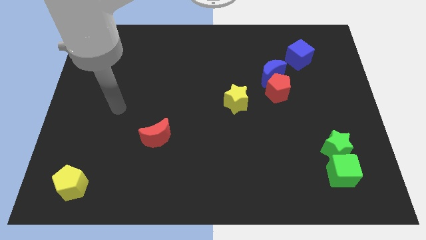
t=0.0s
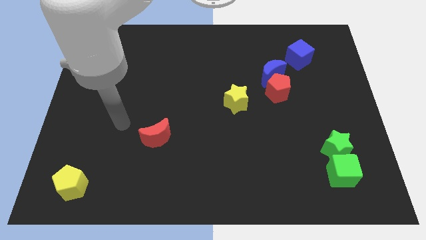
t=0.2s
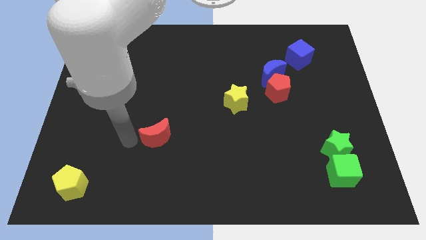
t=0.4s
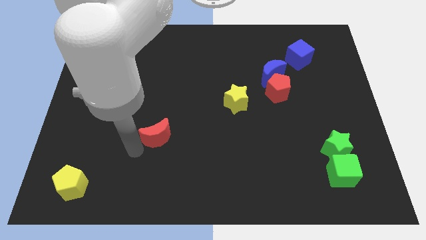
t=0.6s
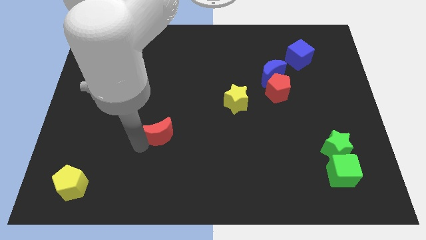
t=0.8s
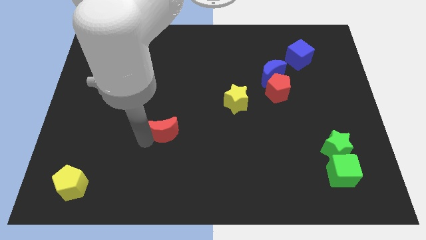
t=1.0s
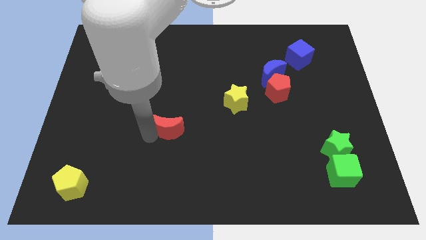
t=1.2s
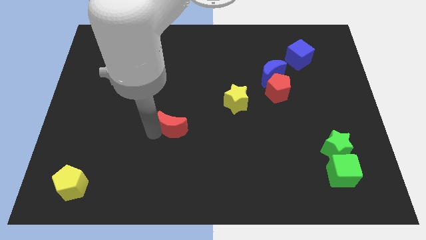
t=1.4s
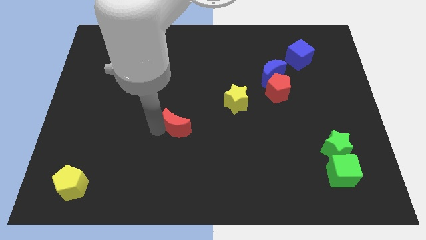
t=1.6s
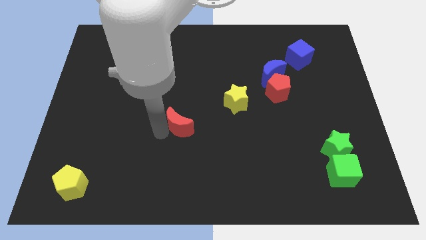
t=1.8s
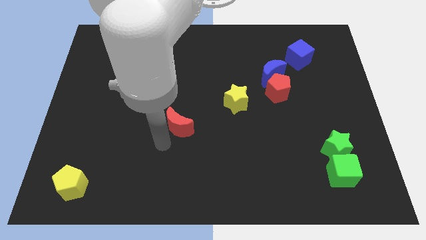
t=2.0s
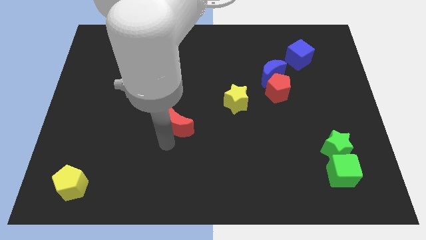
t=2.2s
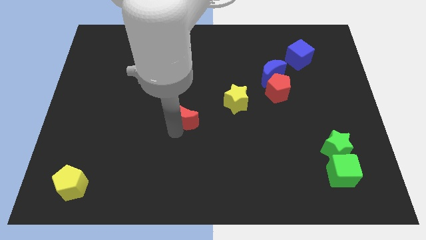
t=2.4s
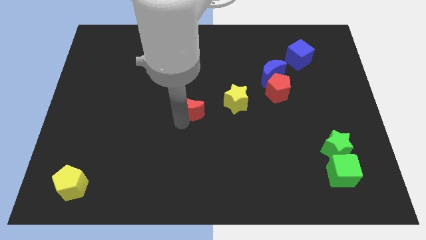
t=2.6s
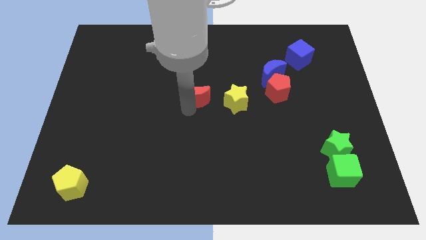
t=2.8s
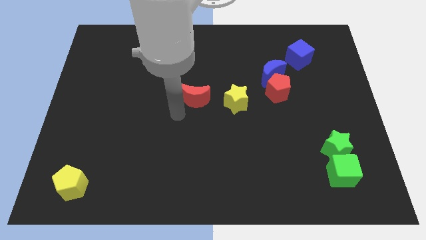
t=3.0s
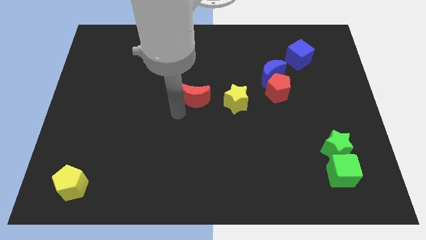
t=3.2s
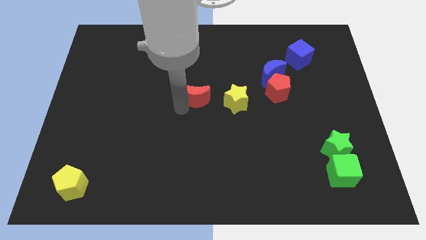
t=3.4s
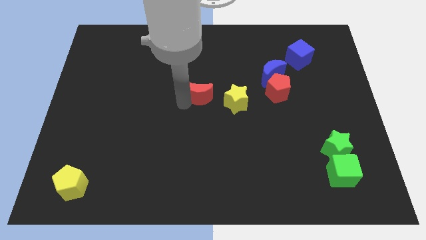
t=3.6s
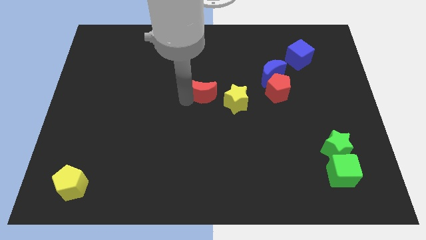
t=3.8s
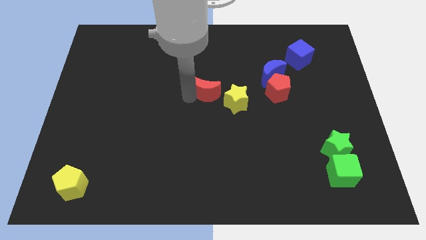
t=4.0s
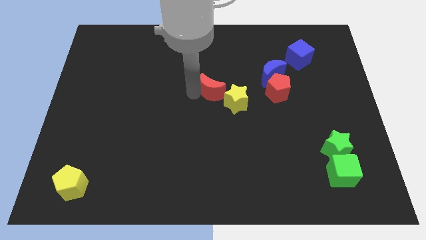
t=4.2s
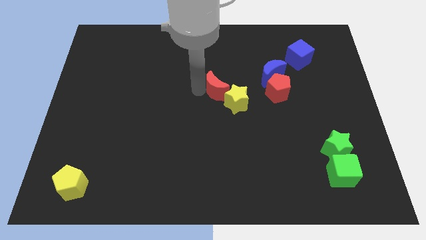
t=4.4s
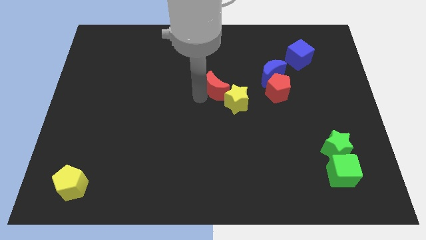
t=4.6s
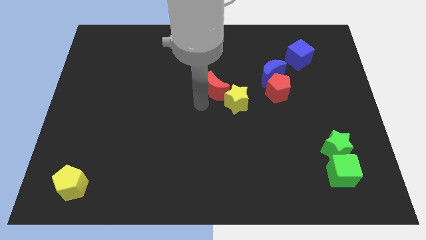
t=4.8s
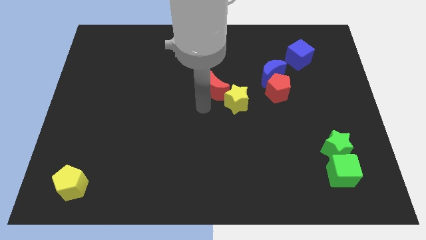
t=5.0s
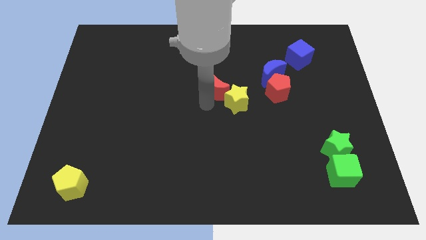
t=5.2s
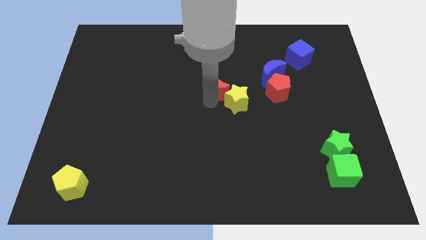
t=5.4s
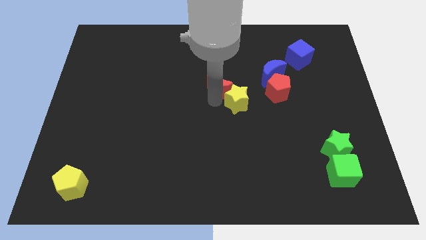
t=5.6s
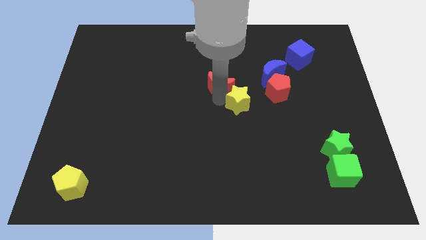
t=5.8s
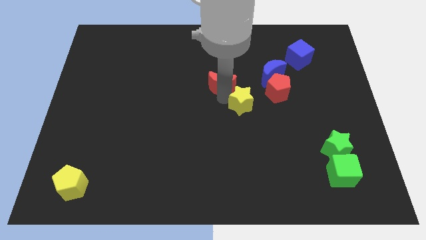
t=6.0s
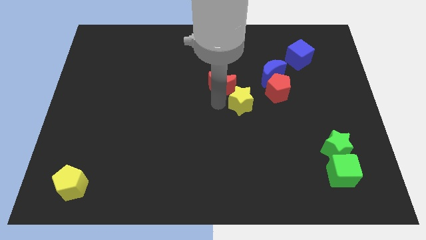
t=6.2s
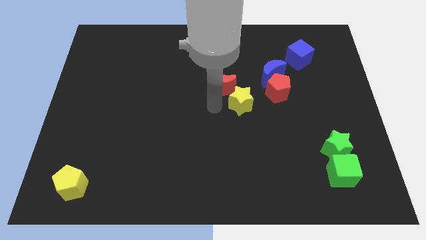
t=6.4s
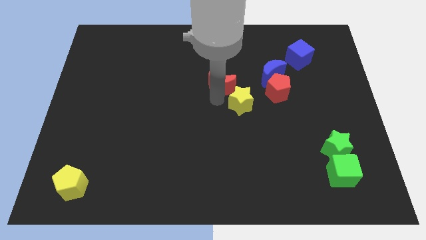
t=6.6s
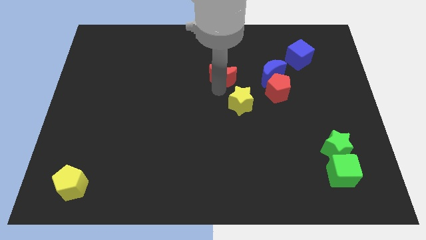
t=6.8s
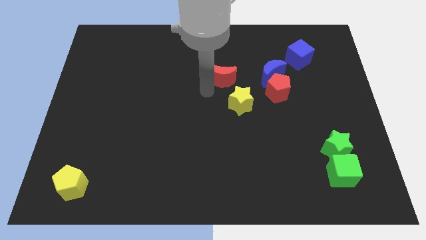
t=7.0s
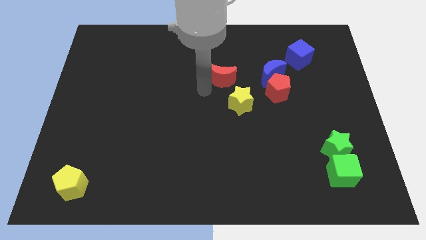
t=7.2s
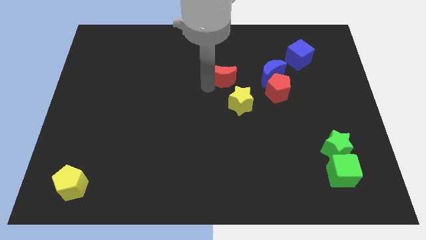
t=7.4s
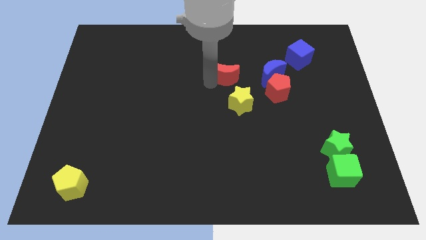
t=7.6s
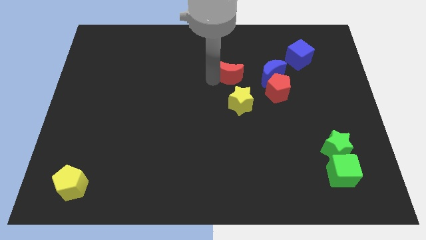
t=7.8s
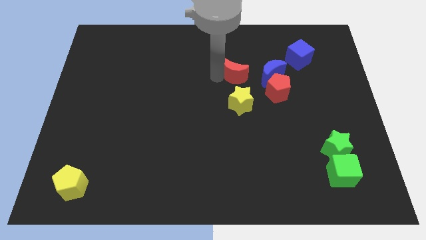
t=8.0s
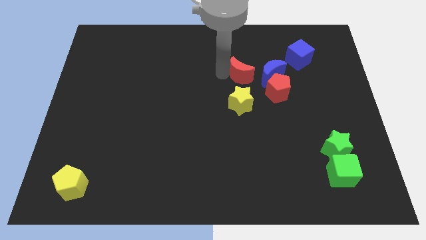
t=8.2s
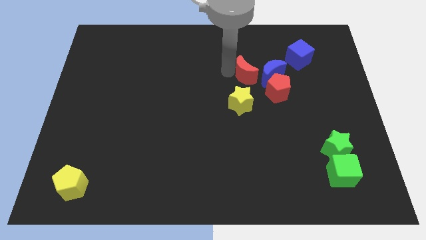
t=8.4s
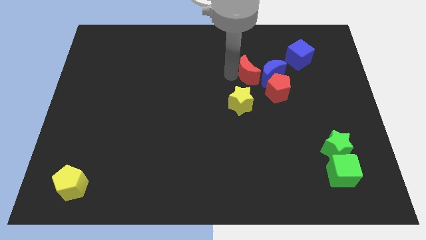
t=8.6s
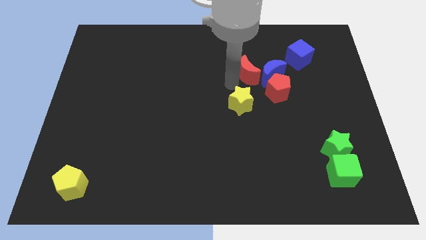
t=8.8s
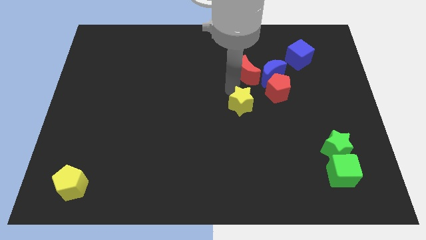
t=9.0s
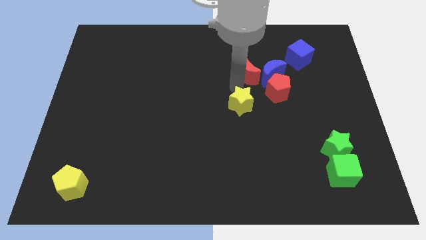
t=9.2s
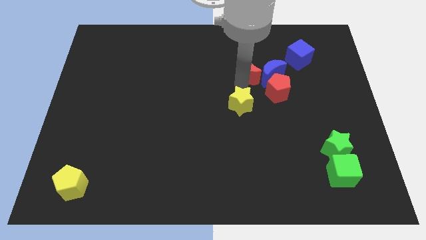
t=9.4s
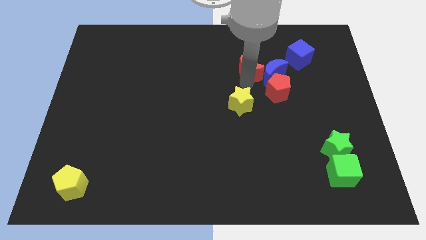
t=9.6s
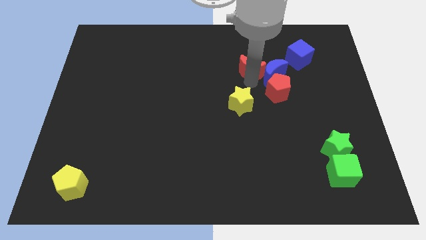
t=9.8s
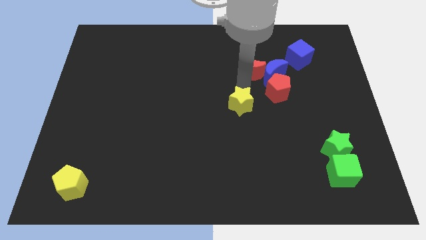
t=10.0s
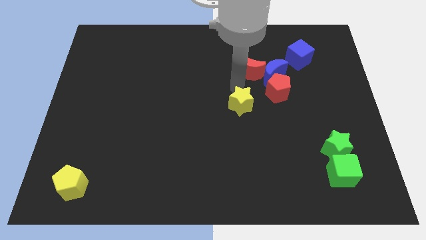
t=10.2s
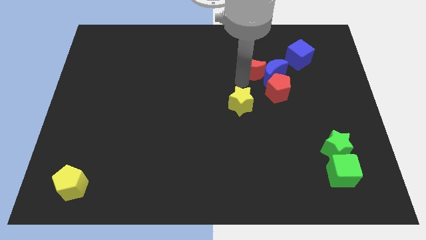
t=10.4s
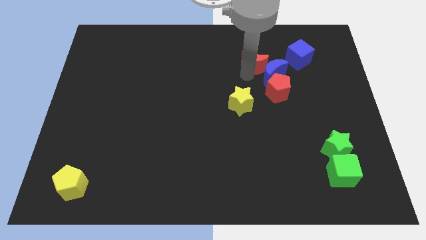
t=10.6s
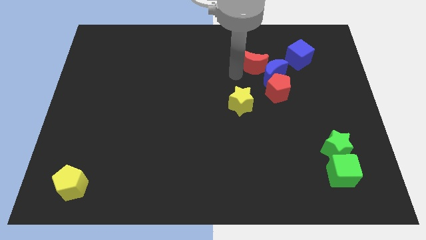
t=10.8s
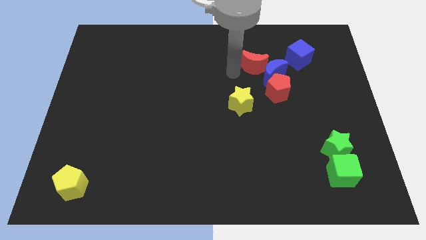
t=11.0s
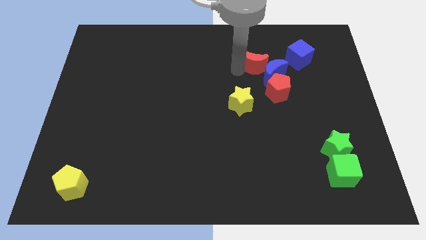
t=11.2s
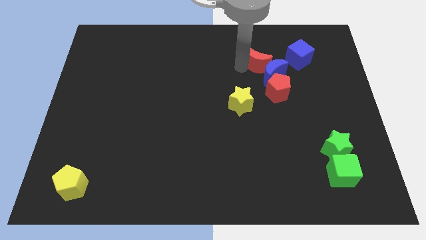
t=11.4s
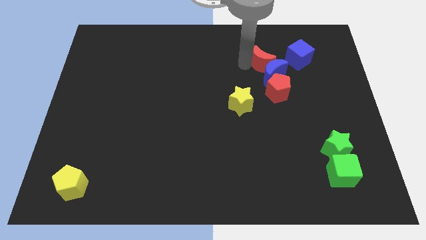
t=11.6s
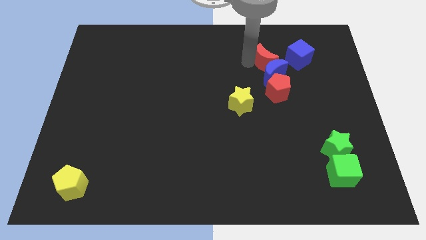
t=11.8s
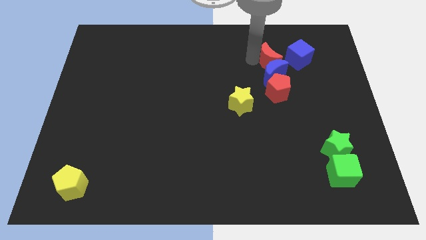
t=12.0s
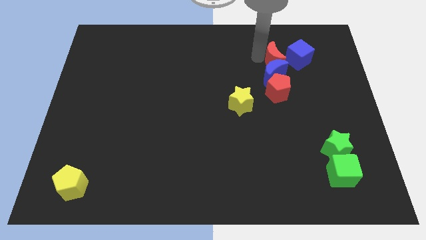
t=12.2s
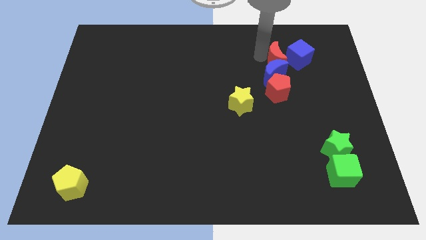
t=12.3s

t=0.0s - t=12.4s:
push the red moon next to the blue cube

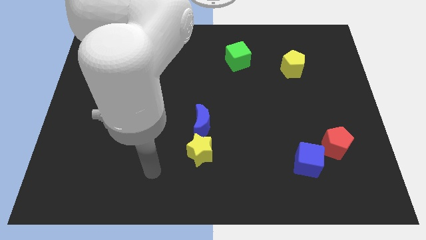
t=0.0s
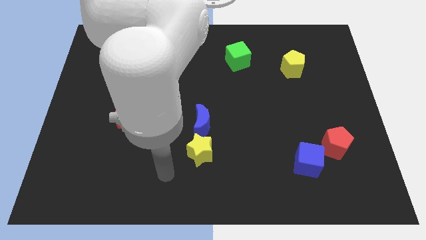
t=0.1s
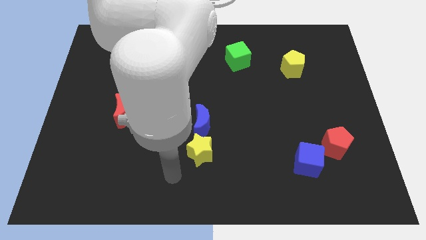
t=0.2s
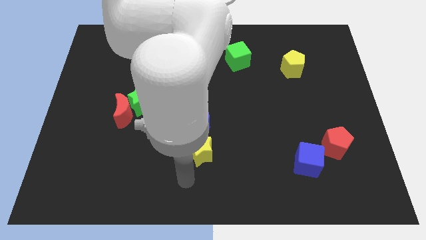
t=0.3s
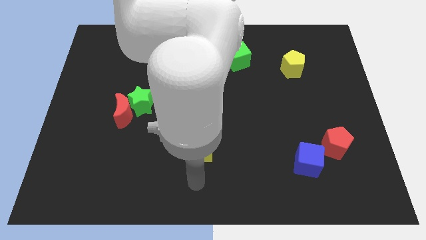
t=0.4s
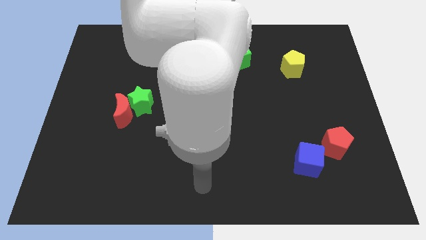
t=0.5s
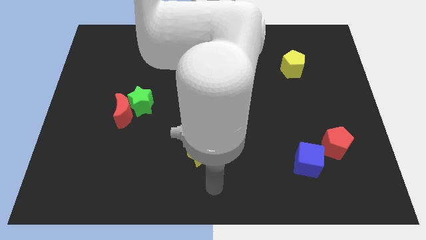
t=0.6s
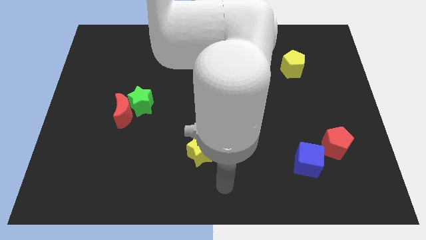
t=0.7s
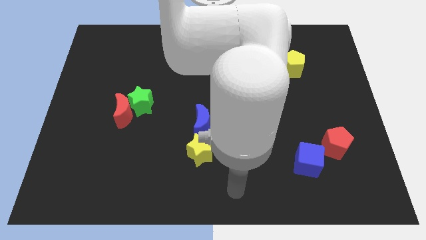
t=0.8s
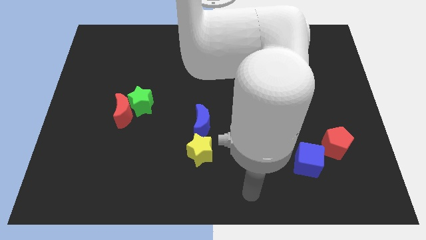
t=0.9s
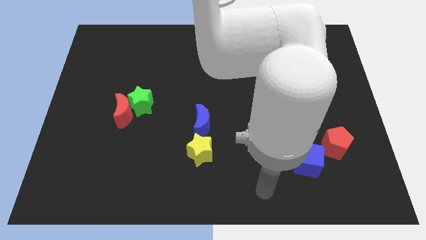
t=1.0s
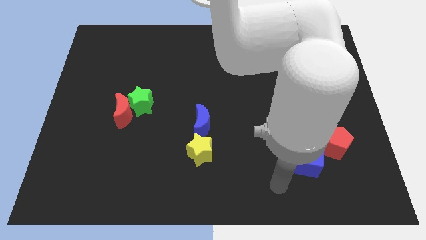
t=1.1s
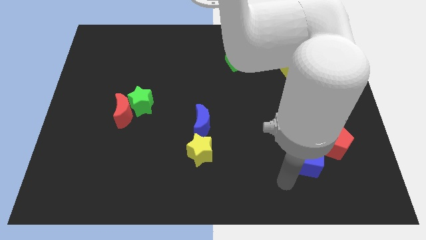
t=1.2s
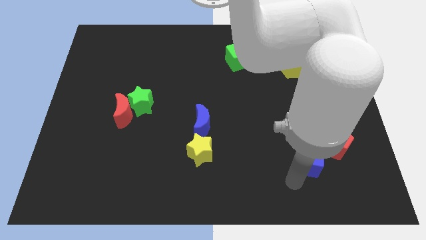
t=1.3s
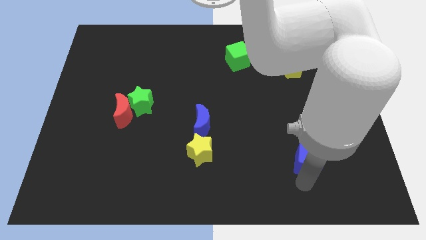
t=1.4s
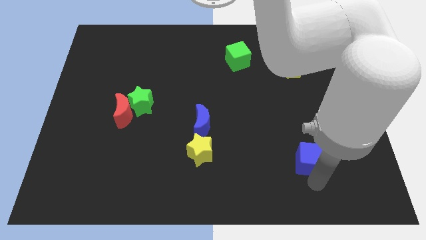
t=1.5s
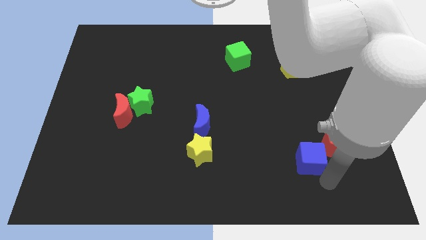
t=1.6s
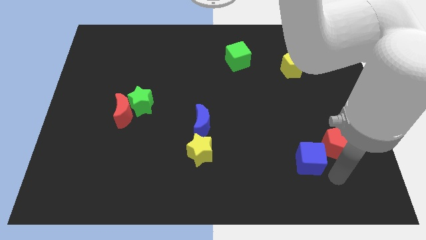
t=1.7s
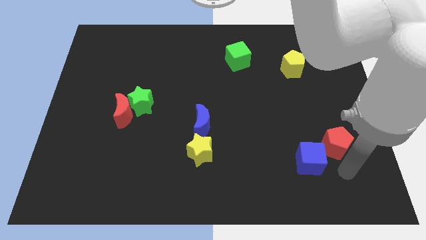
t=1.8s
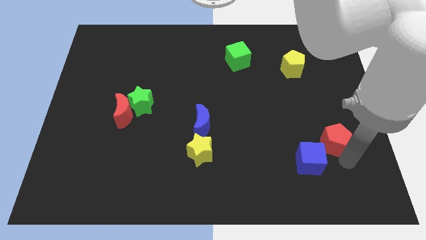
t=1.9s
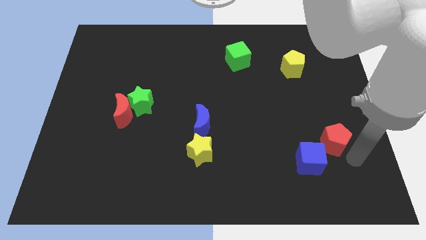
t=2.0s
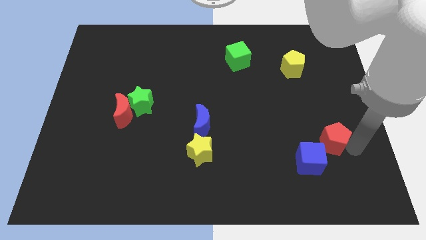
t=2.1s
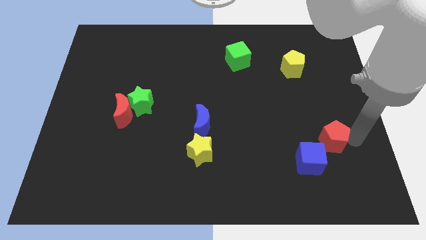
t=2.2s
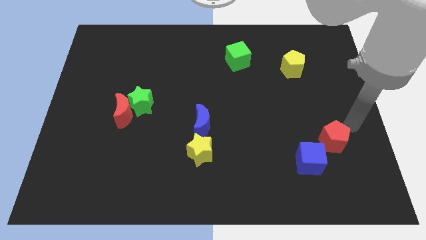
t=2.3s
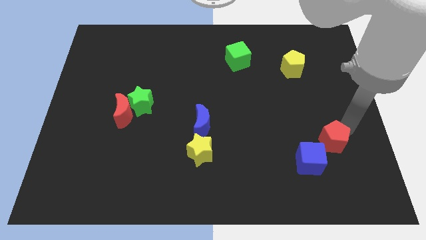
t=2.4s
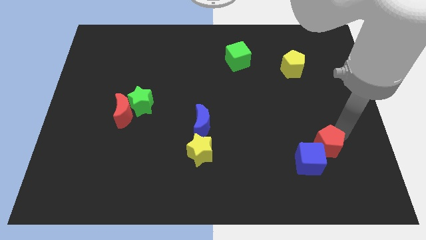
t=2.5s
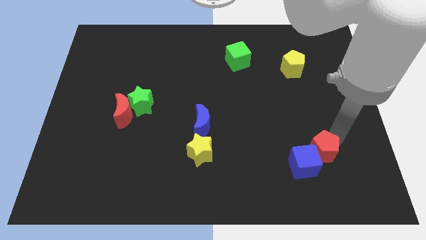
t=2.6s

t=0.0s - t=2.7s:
push the red pentagon close to the blue cube
